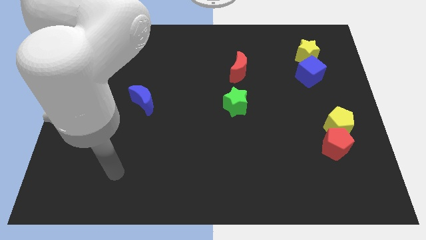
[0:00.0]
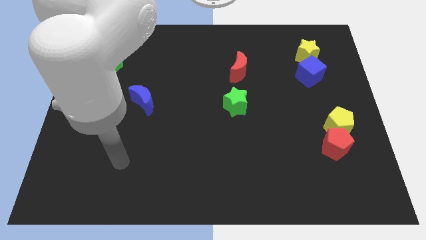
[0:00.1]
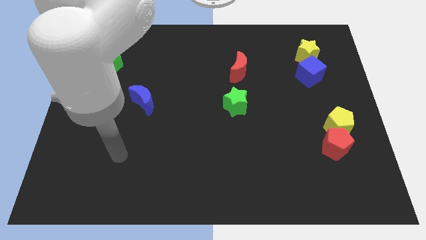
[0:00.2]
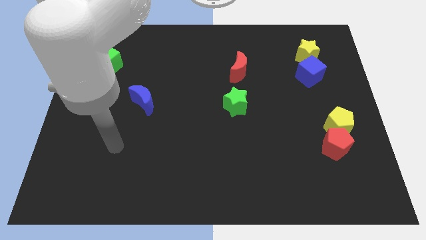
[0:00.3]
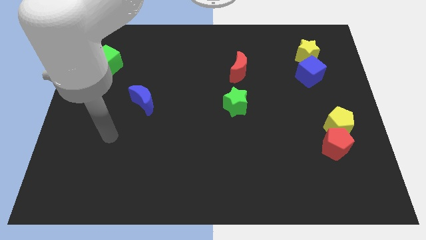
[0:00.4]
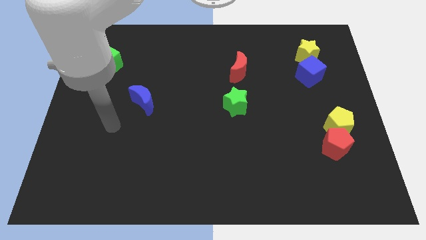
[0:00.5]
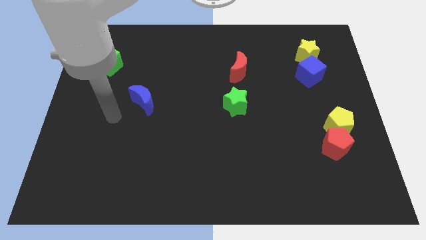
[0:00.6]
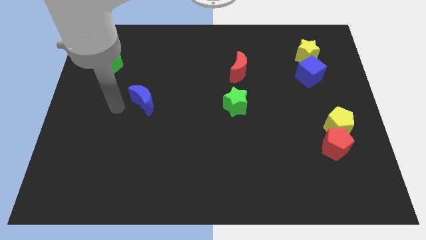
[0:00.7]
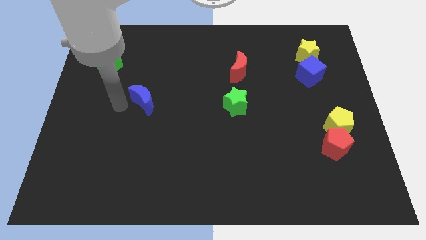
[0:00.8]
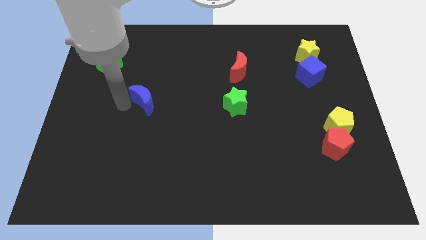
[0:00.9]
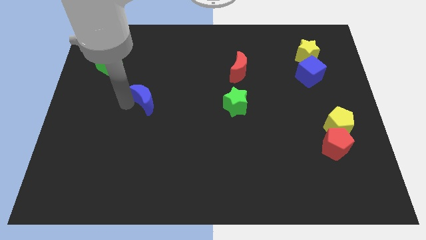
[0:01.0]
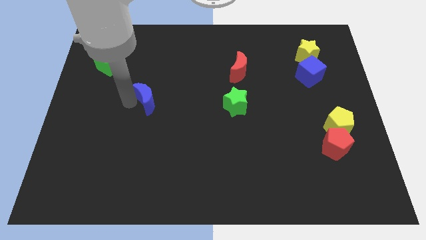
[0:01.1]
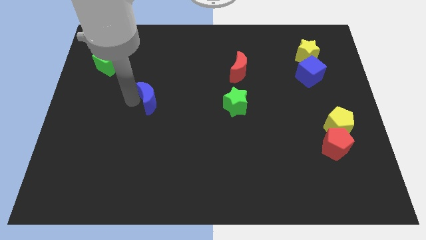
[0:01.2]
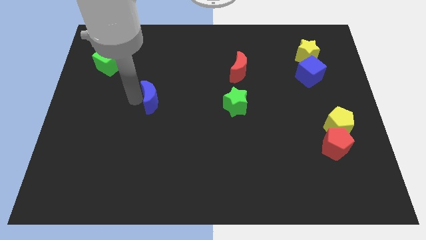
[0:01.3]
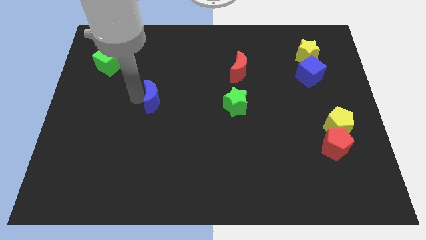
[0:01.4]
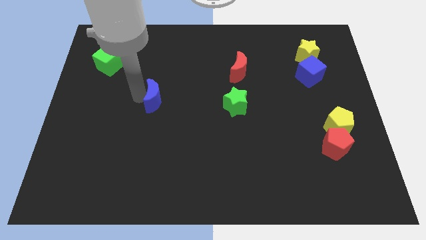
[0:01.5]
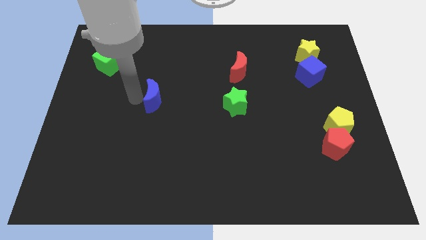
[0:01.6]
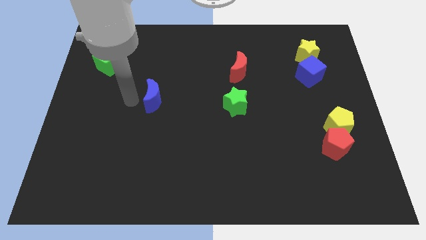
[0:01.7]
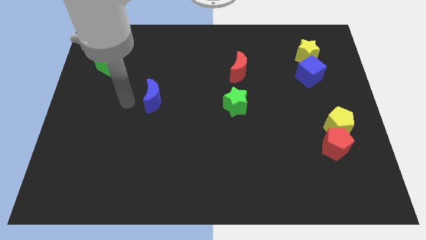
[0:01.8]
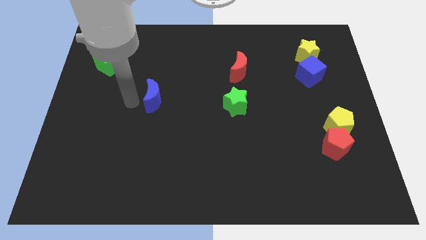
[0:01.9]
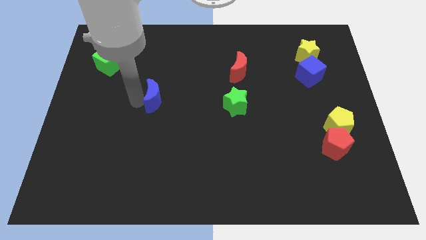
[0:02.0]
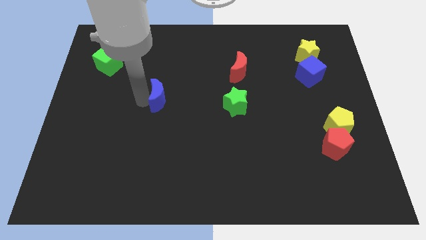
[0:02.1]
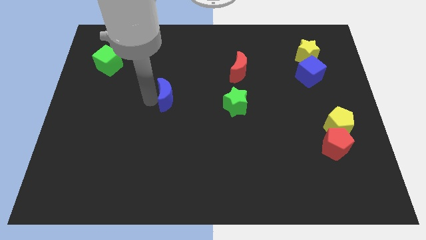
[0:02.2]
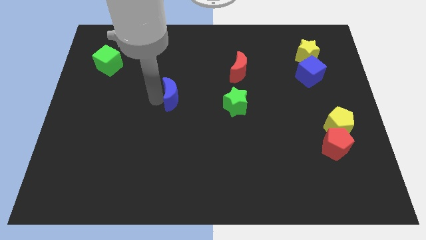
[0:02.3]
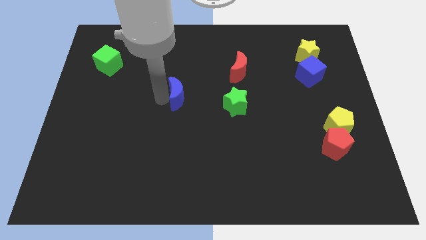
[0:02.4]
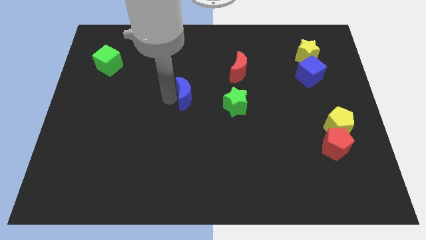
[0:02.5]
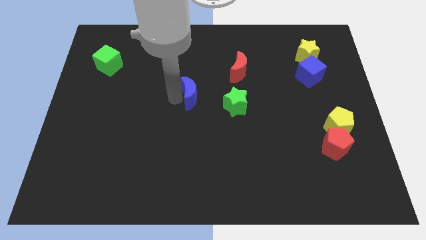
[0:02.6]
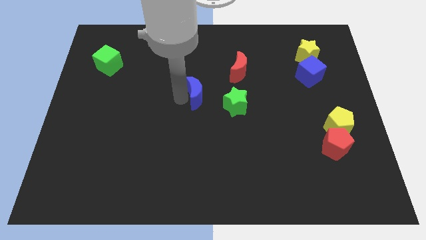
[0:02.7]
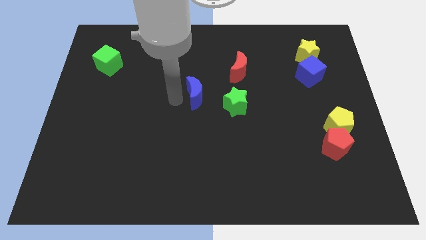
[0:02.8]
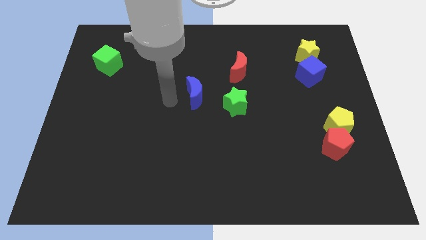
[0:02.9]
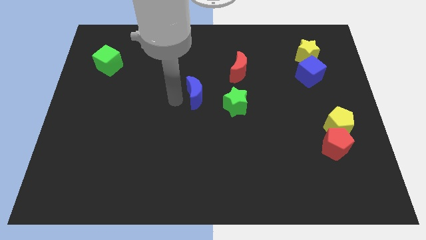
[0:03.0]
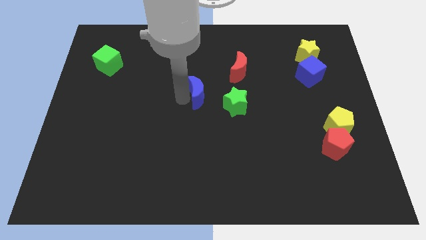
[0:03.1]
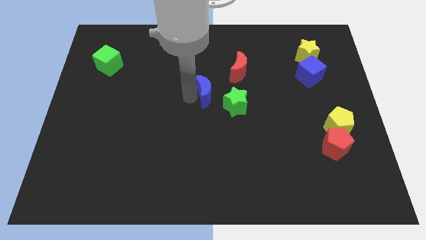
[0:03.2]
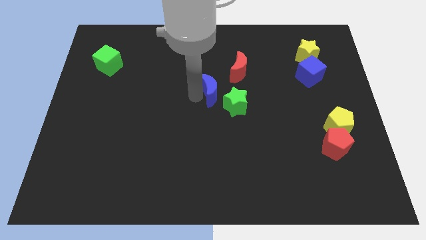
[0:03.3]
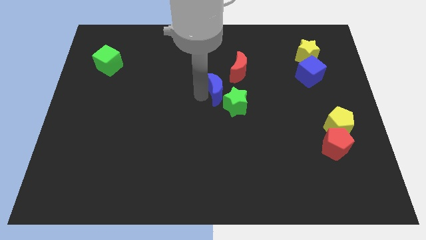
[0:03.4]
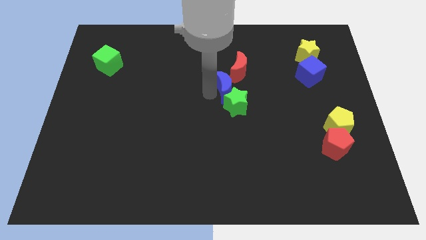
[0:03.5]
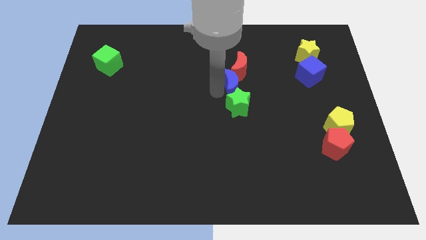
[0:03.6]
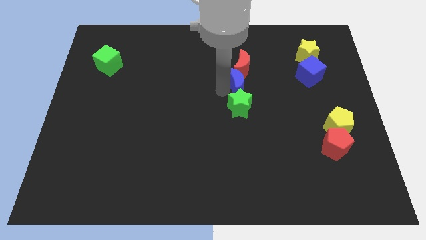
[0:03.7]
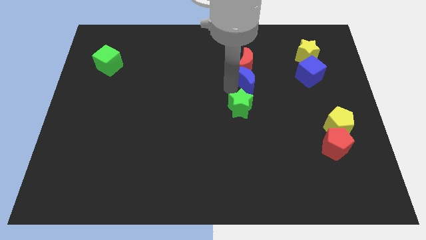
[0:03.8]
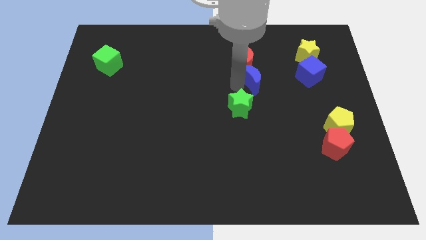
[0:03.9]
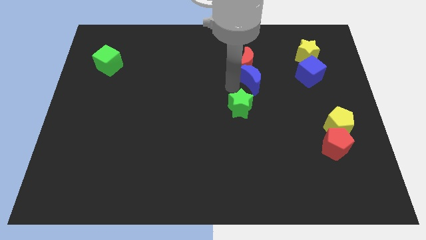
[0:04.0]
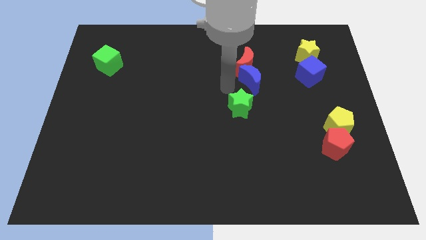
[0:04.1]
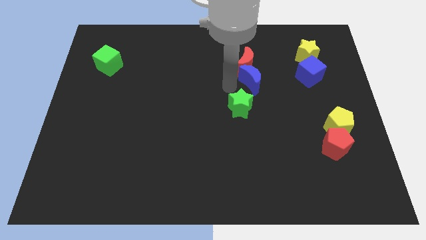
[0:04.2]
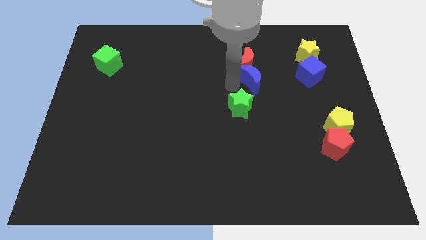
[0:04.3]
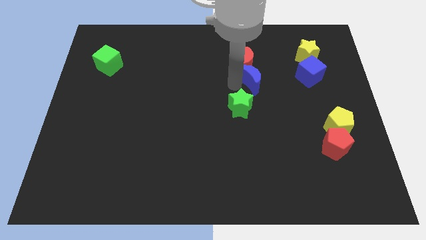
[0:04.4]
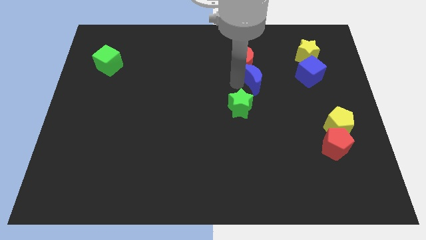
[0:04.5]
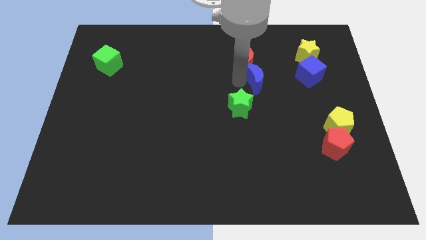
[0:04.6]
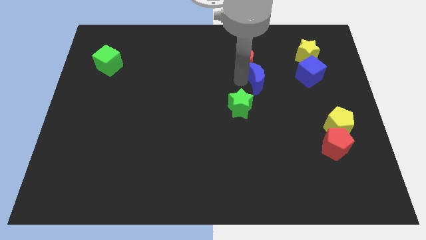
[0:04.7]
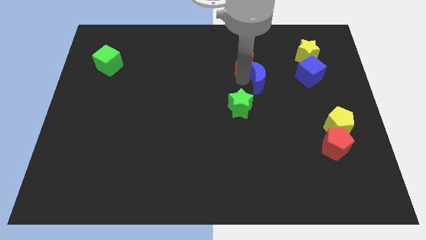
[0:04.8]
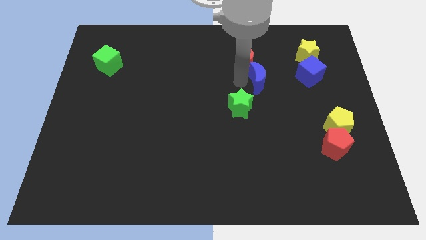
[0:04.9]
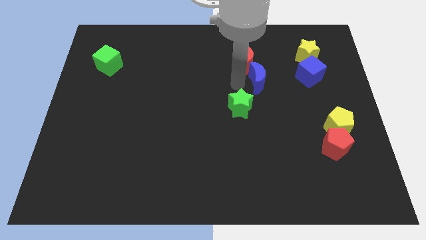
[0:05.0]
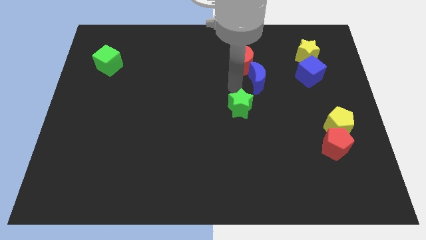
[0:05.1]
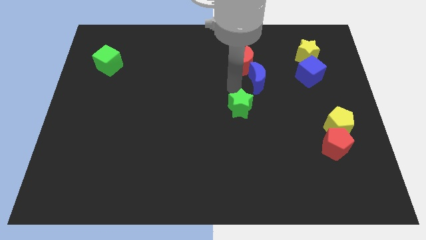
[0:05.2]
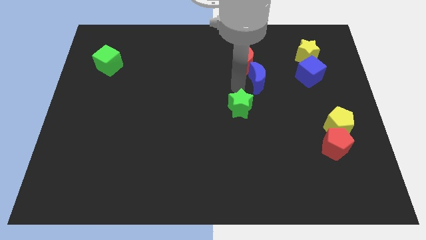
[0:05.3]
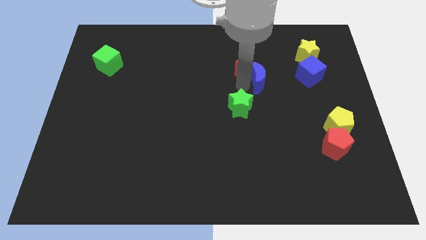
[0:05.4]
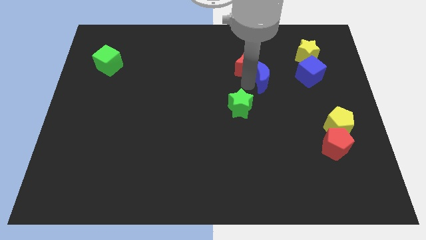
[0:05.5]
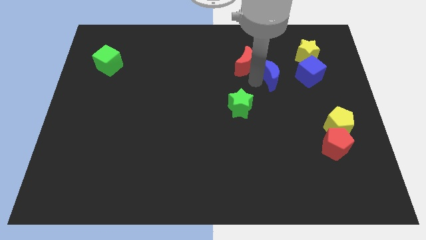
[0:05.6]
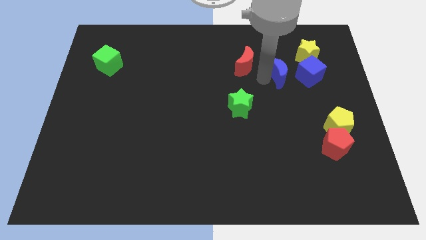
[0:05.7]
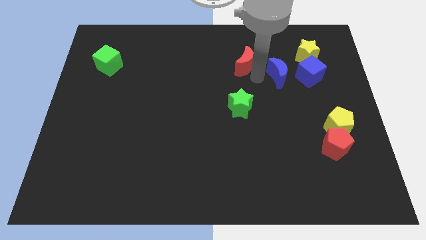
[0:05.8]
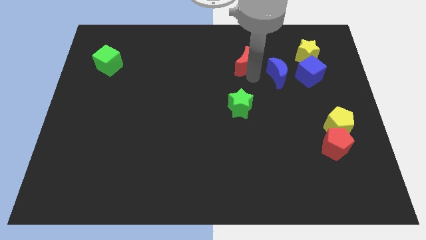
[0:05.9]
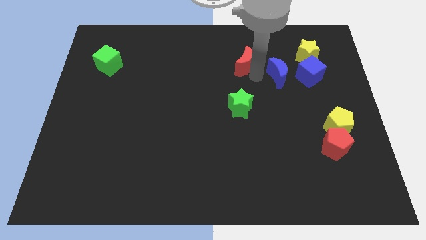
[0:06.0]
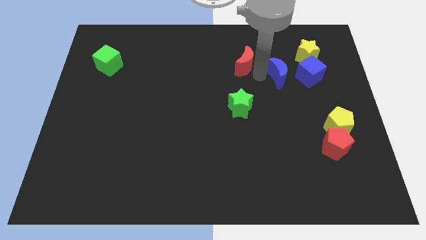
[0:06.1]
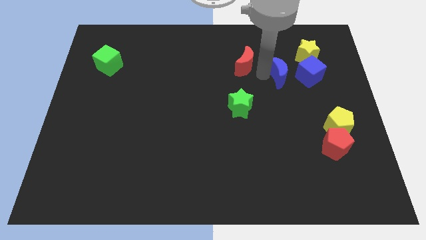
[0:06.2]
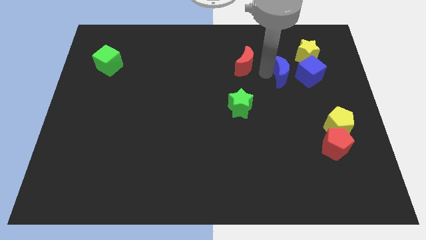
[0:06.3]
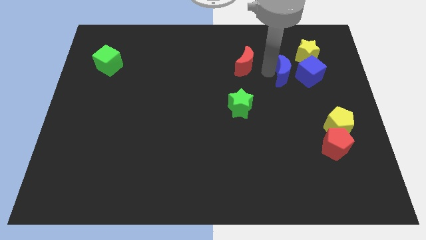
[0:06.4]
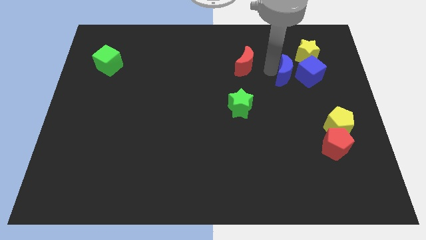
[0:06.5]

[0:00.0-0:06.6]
move the blue moon close to the blue cube

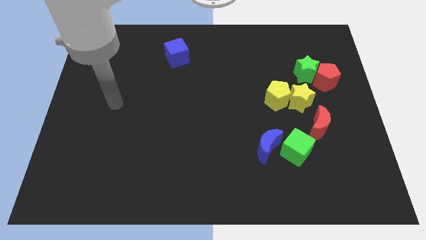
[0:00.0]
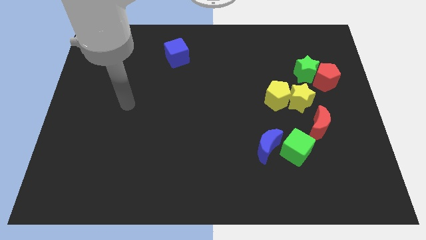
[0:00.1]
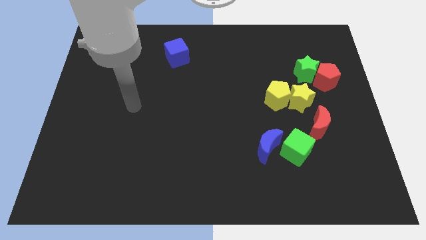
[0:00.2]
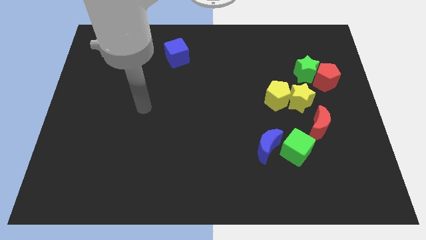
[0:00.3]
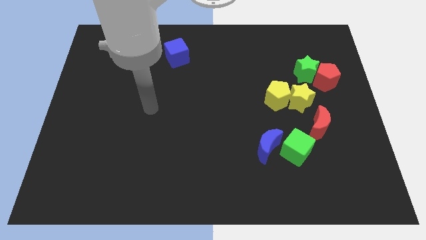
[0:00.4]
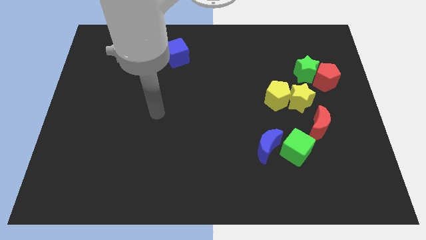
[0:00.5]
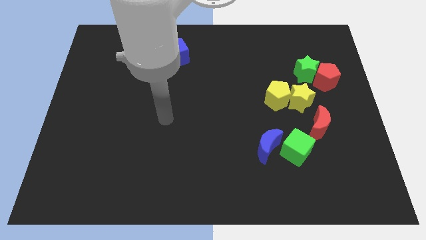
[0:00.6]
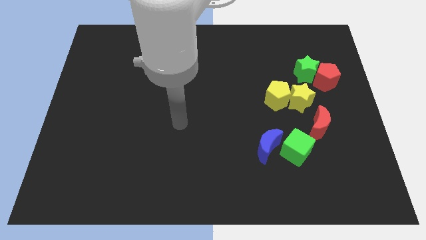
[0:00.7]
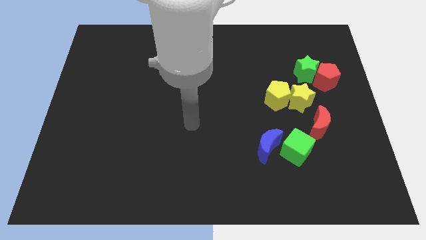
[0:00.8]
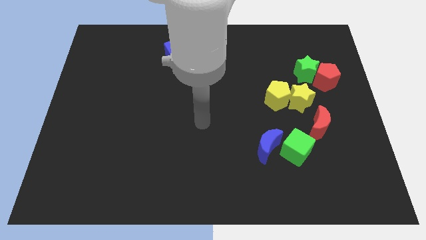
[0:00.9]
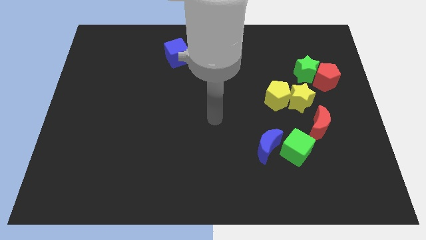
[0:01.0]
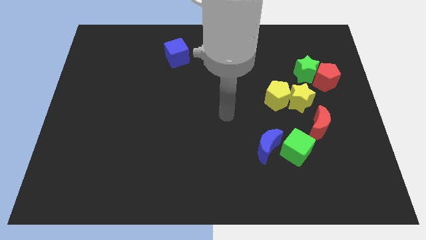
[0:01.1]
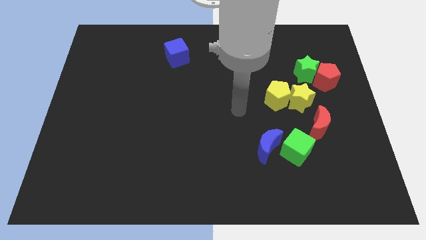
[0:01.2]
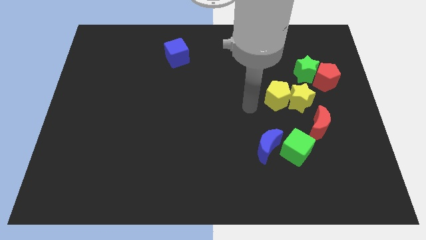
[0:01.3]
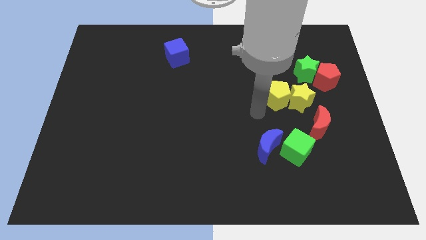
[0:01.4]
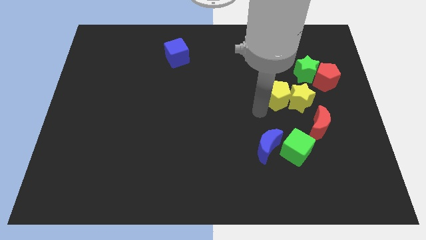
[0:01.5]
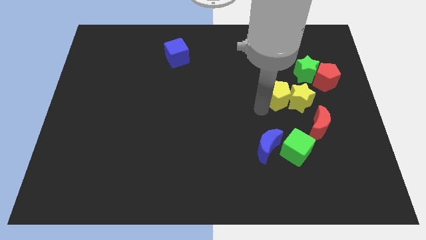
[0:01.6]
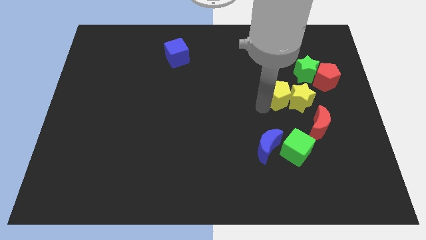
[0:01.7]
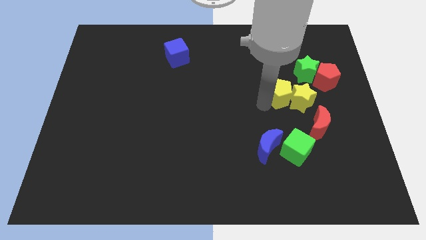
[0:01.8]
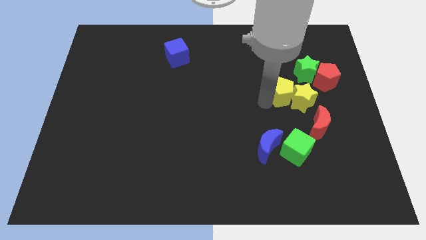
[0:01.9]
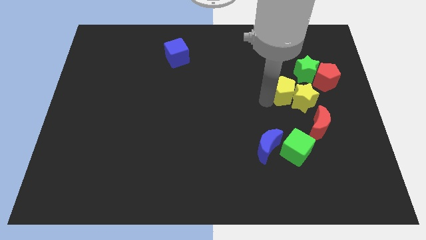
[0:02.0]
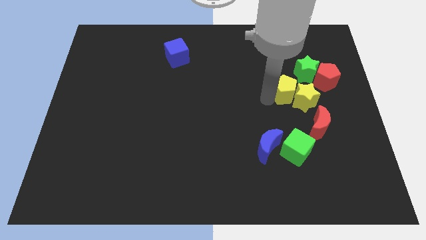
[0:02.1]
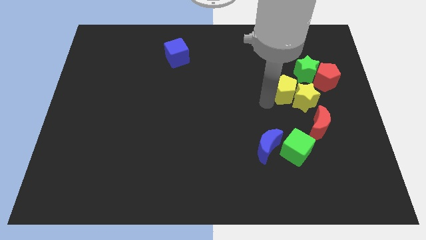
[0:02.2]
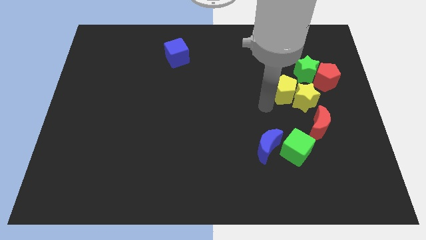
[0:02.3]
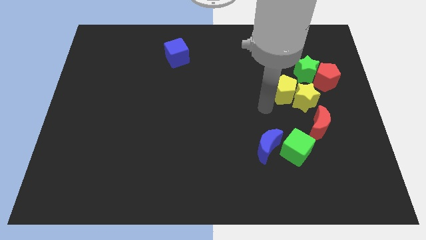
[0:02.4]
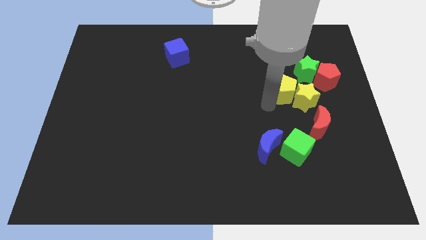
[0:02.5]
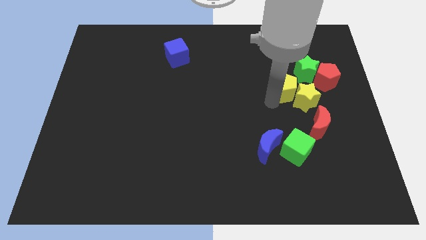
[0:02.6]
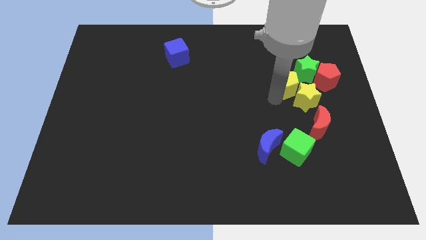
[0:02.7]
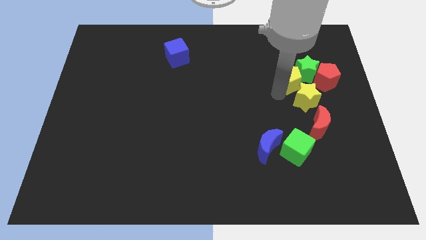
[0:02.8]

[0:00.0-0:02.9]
move the yellow pentagon next to the green star
